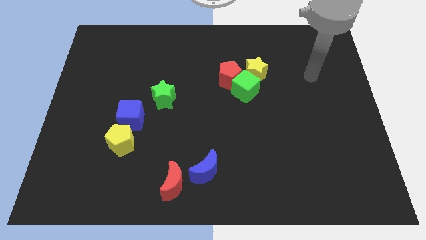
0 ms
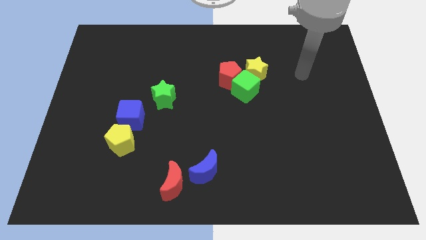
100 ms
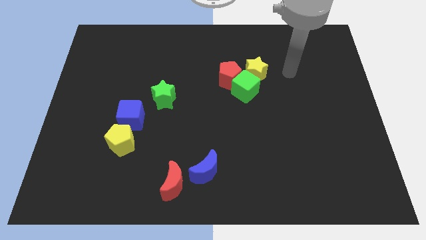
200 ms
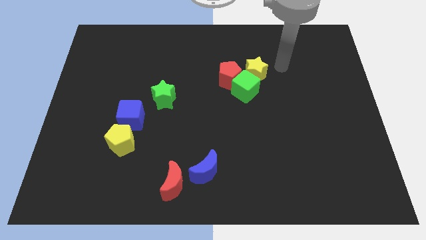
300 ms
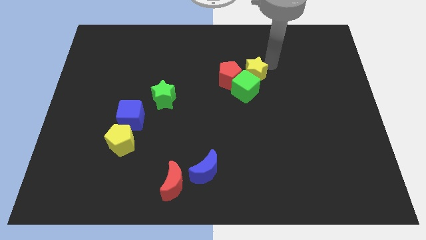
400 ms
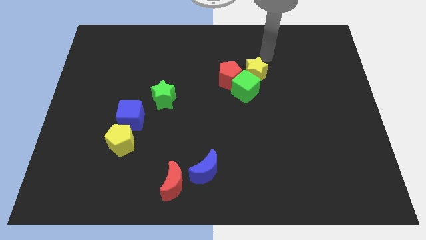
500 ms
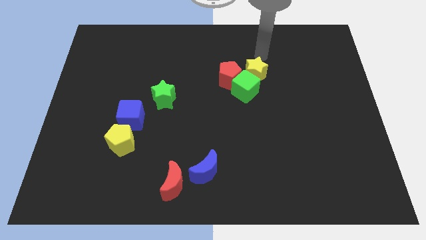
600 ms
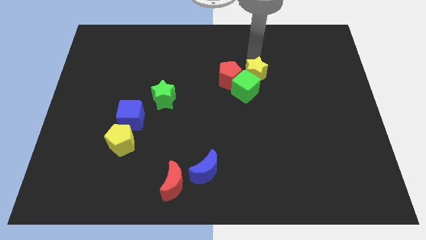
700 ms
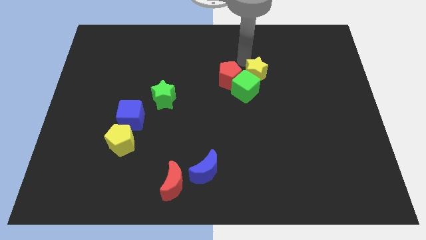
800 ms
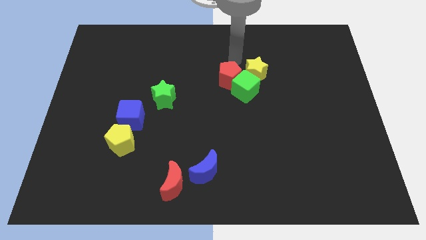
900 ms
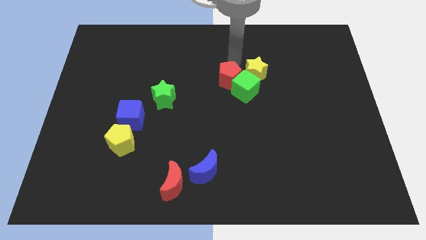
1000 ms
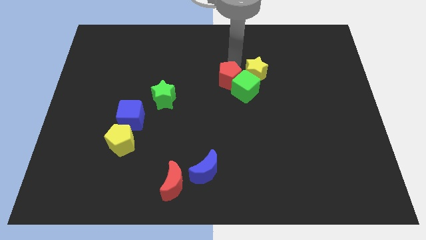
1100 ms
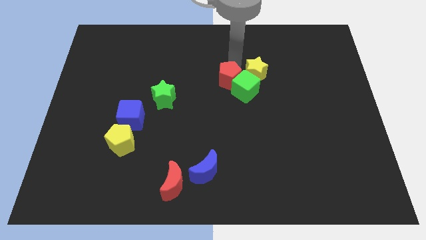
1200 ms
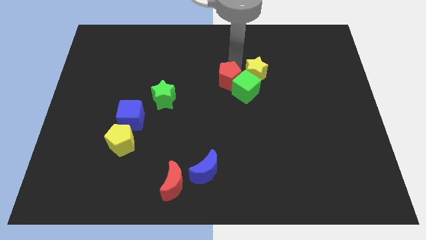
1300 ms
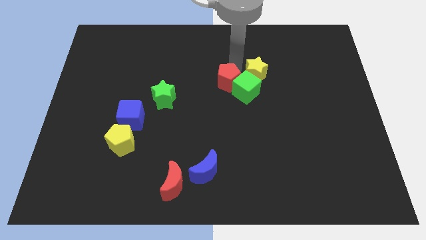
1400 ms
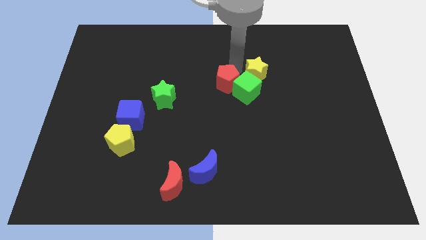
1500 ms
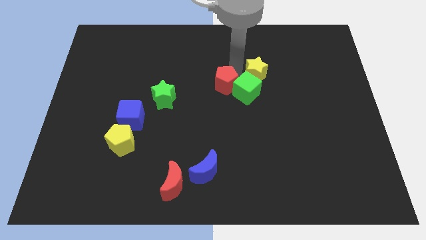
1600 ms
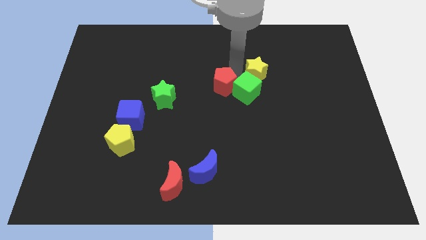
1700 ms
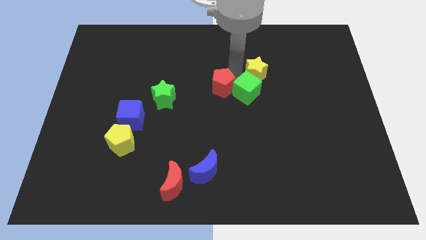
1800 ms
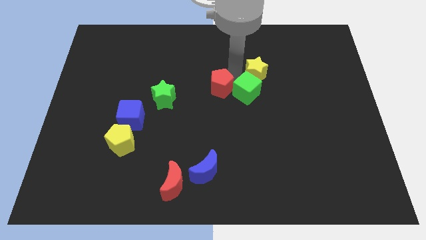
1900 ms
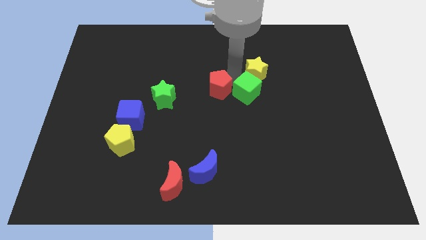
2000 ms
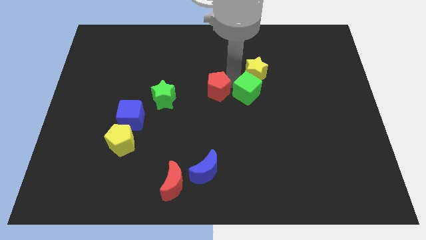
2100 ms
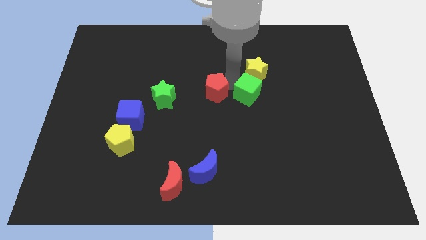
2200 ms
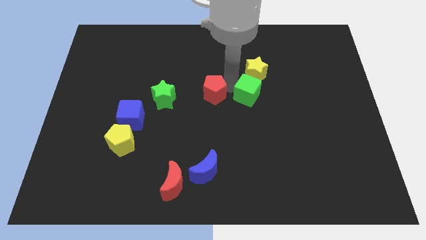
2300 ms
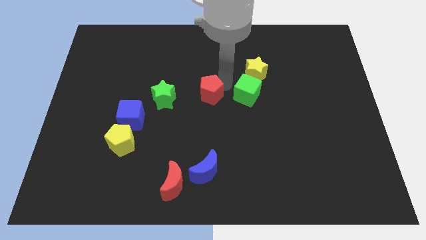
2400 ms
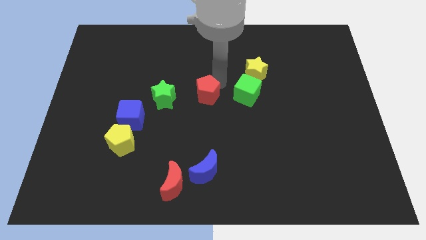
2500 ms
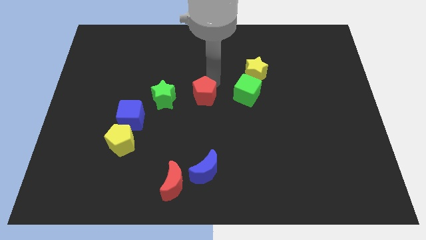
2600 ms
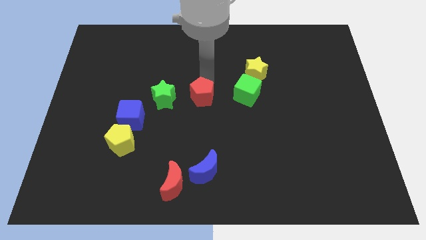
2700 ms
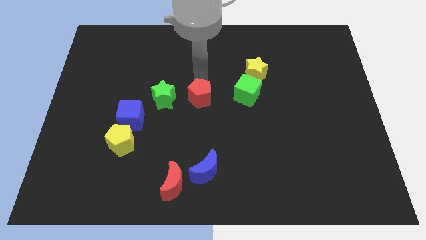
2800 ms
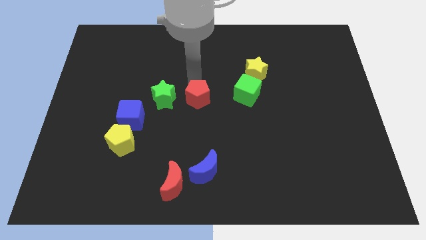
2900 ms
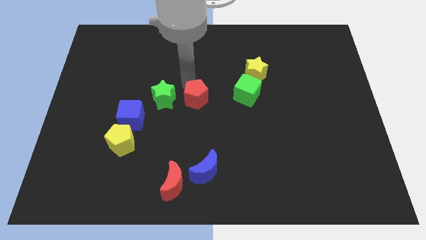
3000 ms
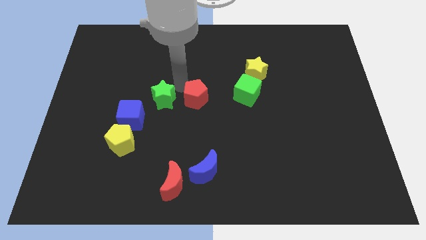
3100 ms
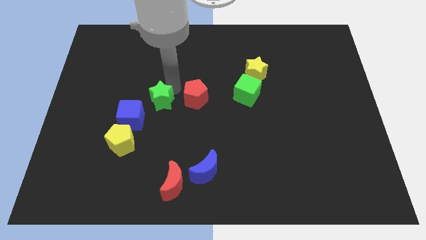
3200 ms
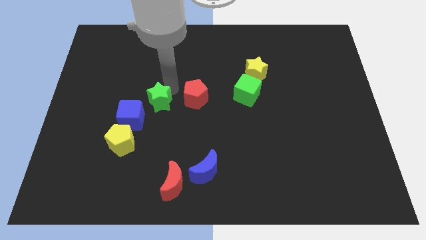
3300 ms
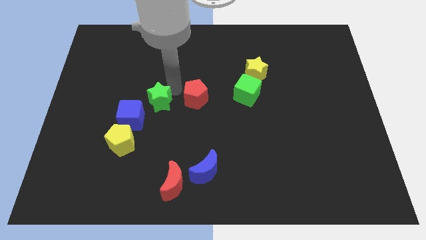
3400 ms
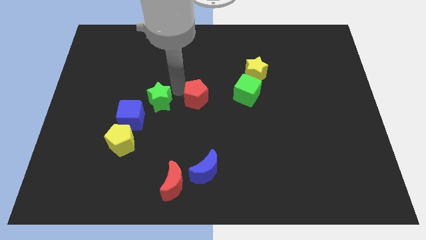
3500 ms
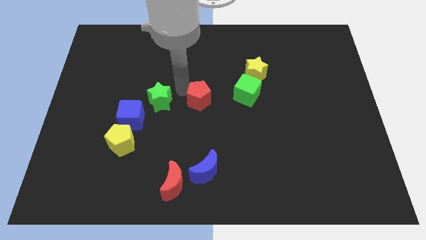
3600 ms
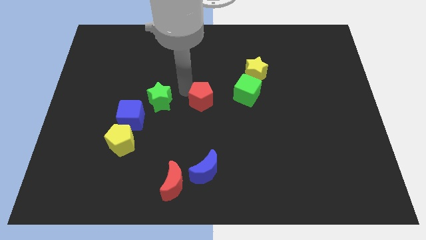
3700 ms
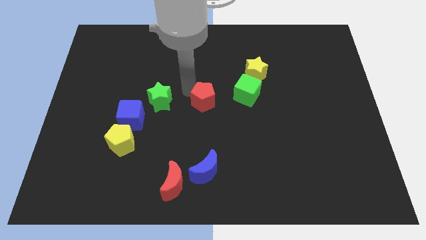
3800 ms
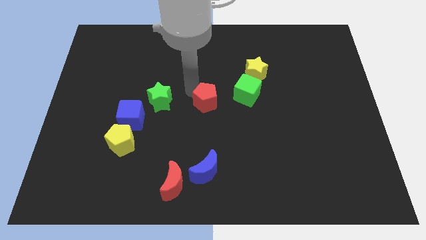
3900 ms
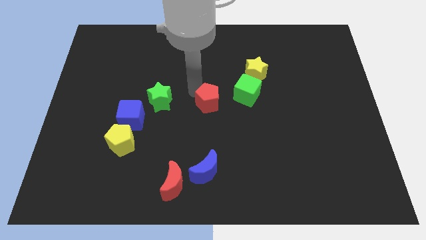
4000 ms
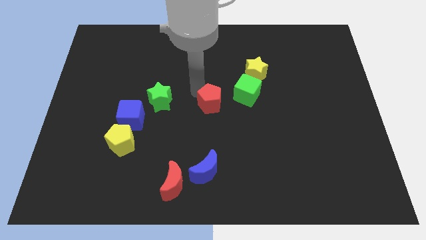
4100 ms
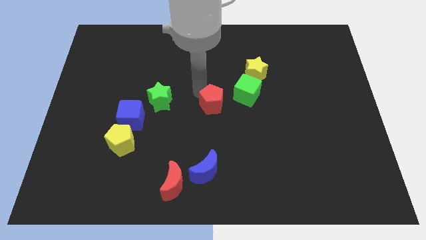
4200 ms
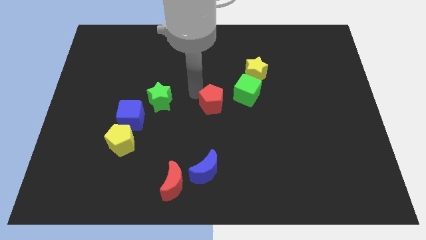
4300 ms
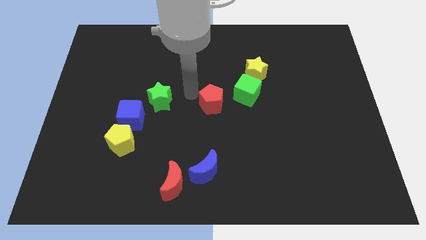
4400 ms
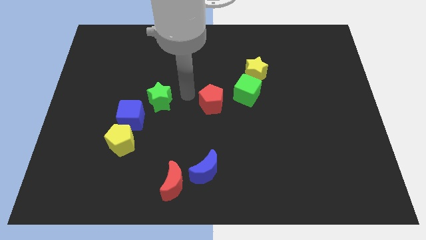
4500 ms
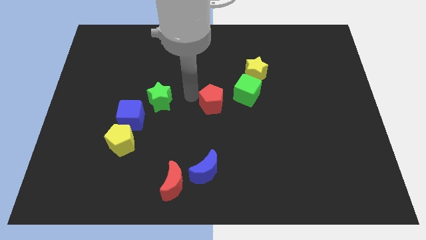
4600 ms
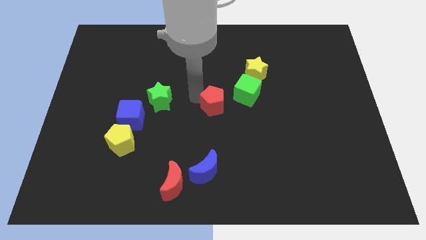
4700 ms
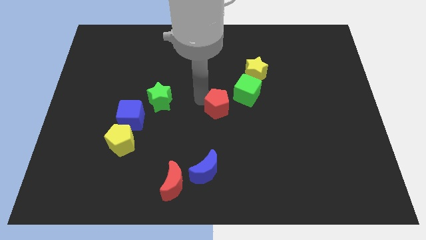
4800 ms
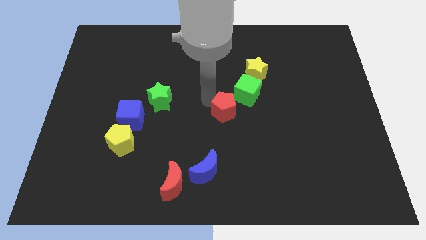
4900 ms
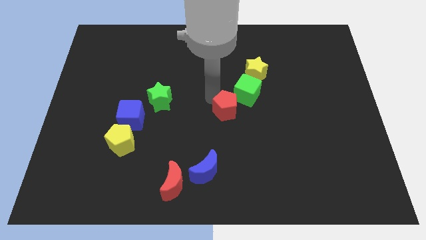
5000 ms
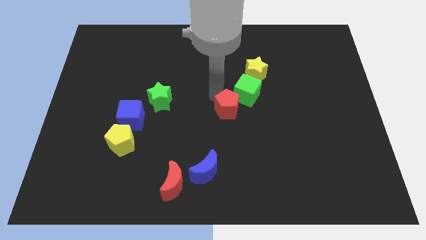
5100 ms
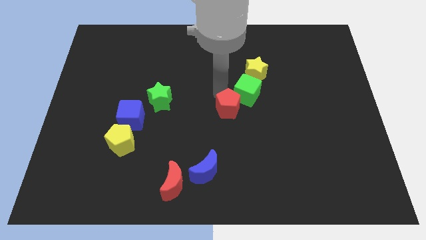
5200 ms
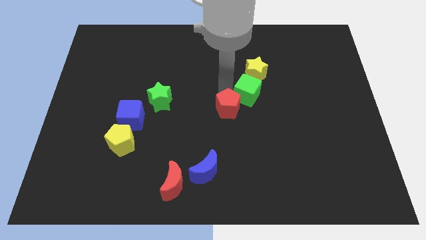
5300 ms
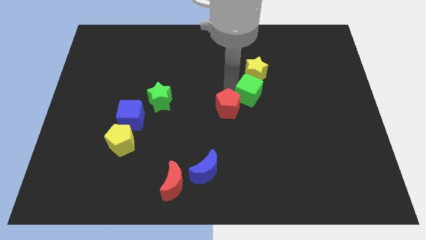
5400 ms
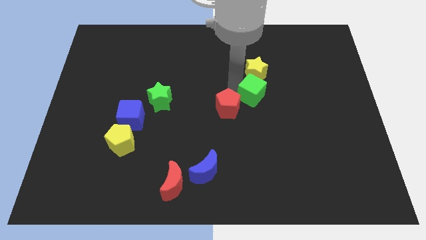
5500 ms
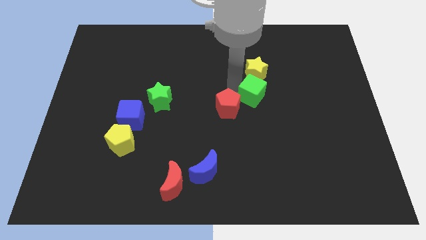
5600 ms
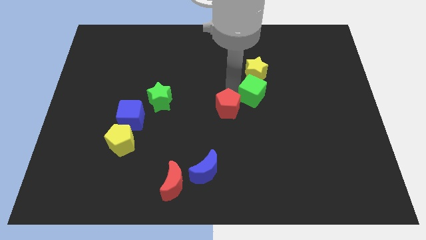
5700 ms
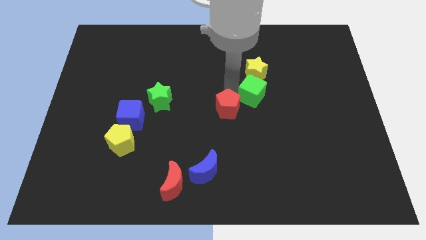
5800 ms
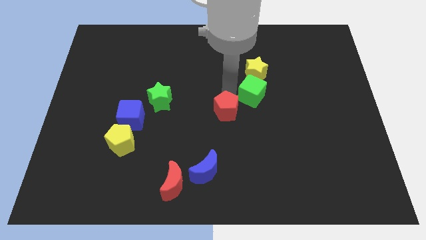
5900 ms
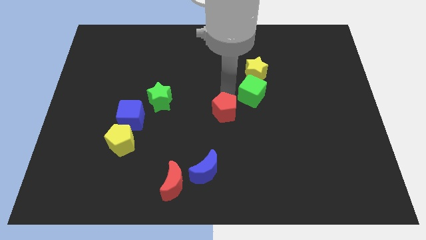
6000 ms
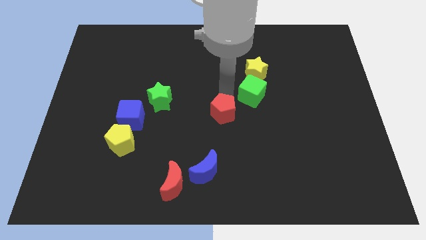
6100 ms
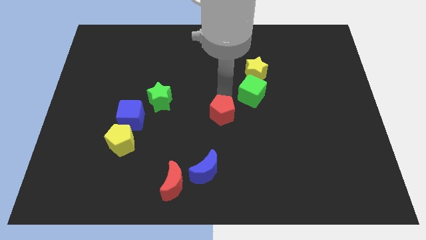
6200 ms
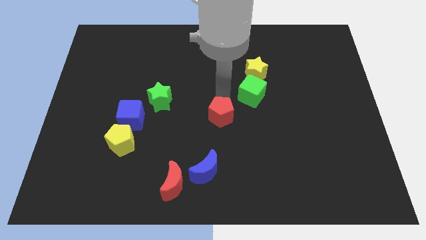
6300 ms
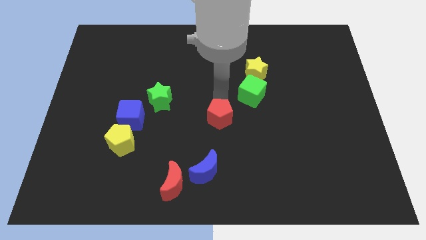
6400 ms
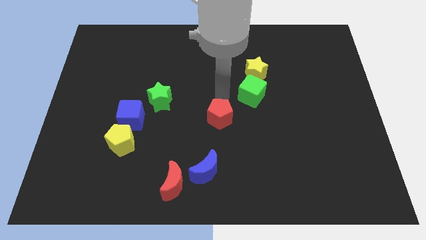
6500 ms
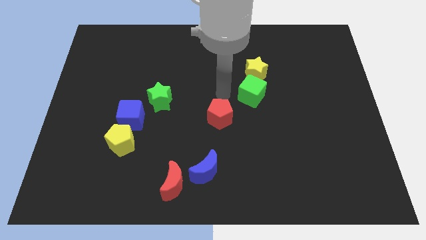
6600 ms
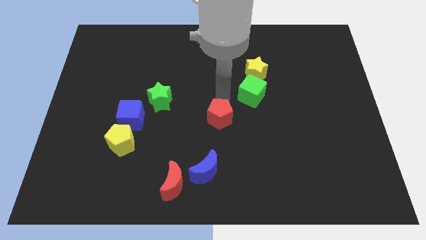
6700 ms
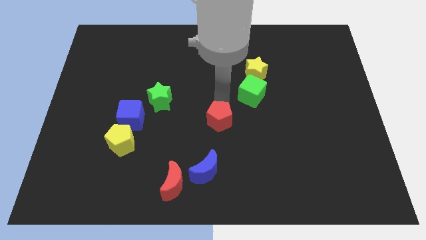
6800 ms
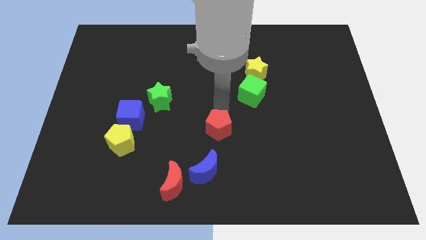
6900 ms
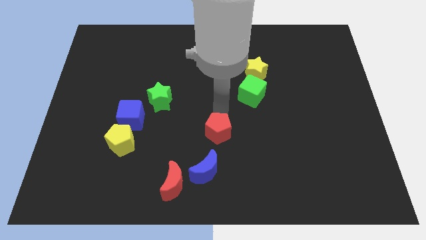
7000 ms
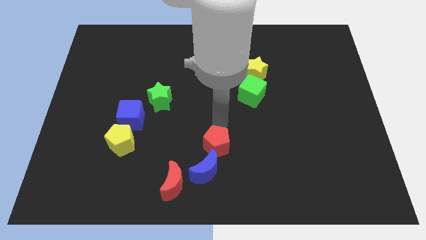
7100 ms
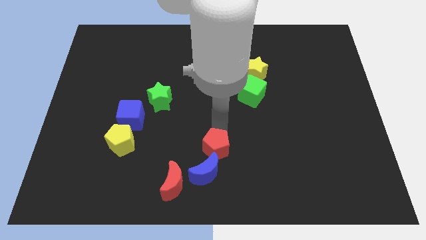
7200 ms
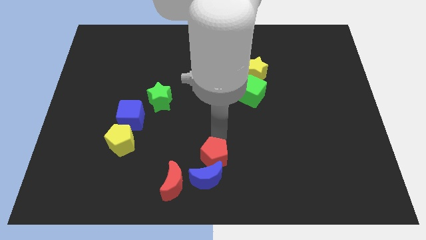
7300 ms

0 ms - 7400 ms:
slide the red pentagon towards the blue moon
